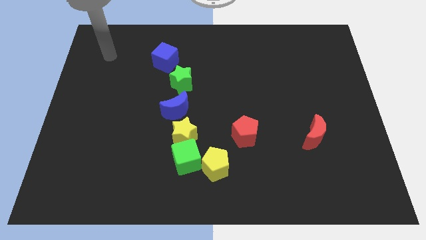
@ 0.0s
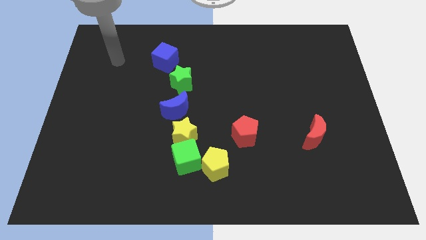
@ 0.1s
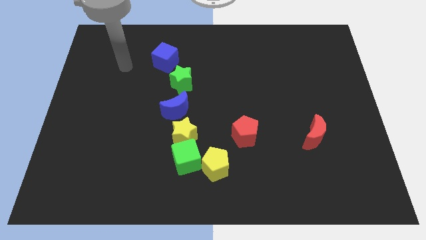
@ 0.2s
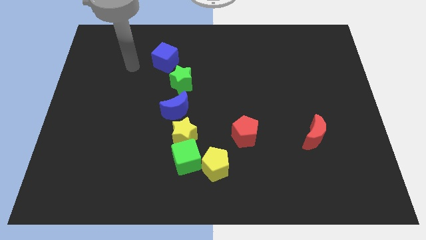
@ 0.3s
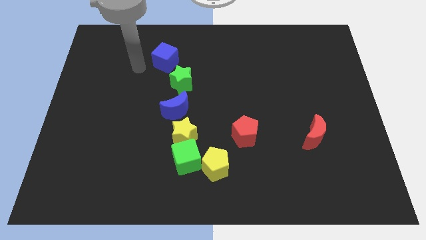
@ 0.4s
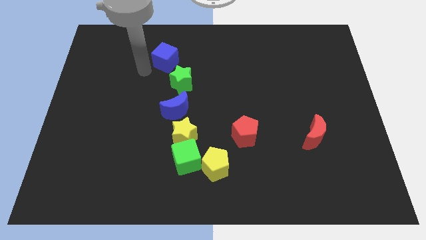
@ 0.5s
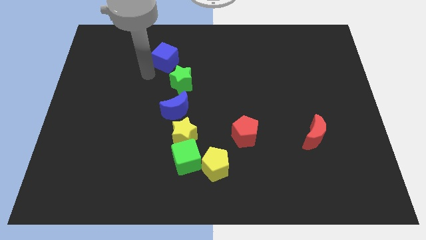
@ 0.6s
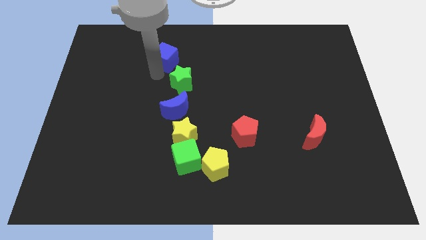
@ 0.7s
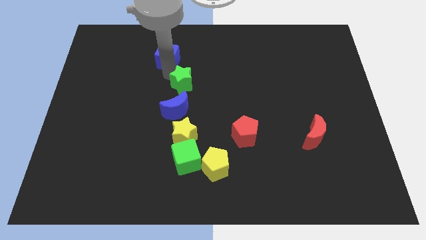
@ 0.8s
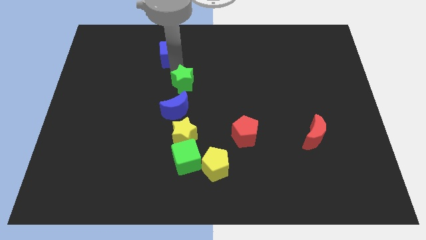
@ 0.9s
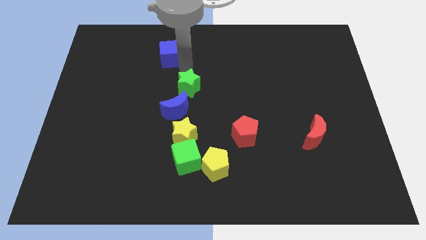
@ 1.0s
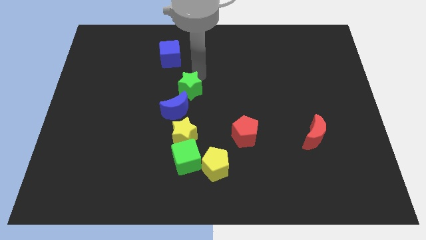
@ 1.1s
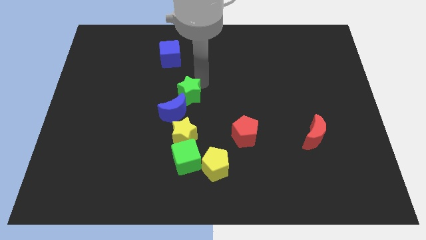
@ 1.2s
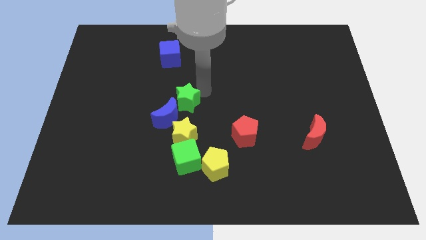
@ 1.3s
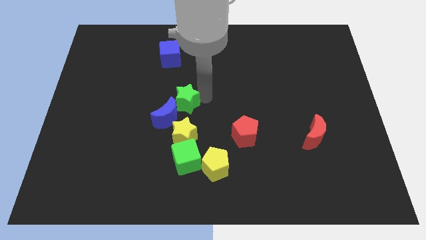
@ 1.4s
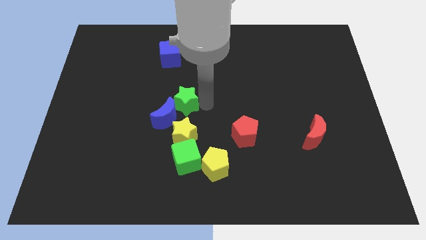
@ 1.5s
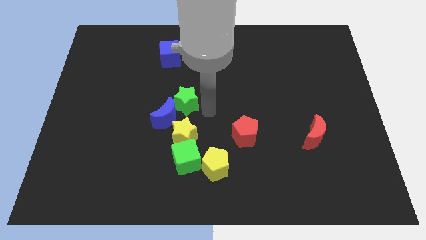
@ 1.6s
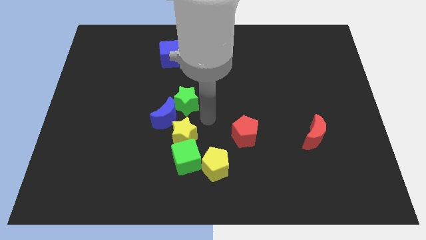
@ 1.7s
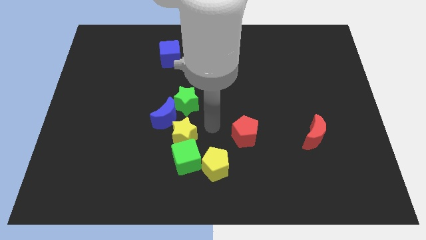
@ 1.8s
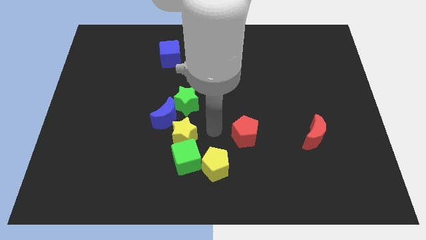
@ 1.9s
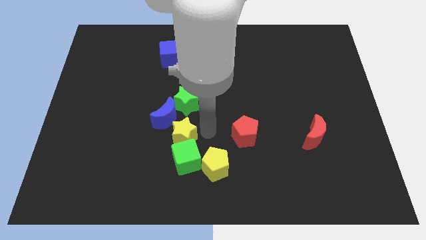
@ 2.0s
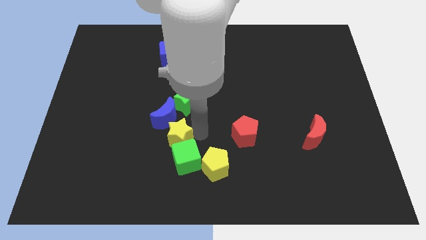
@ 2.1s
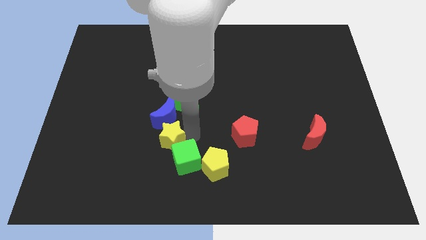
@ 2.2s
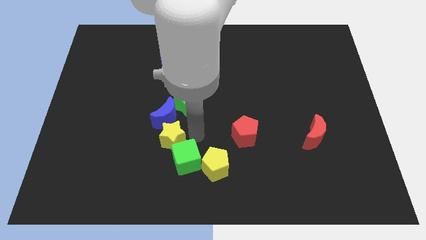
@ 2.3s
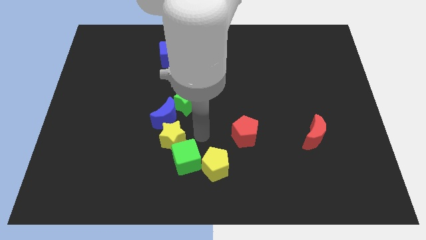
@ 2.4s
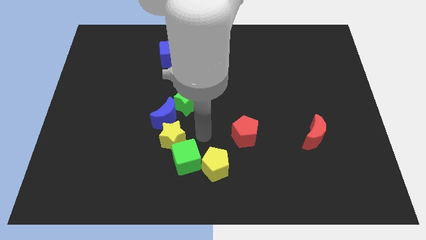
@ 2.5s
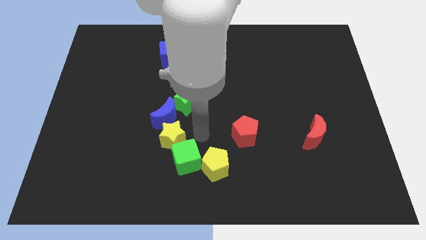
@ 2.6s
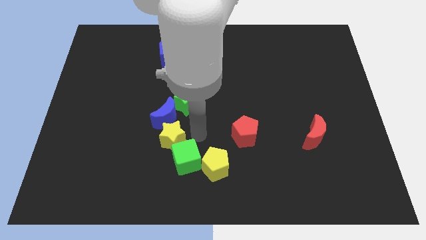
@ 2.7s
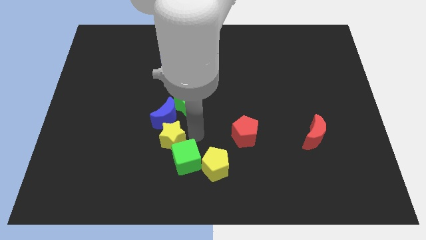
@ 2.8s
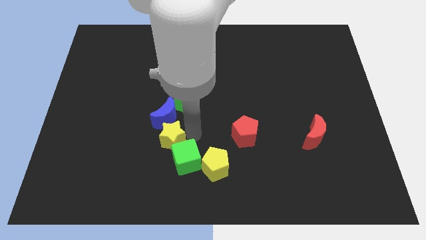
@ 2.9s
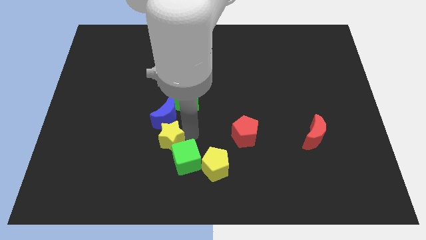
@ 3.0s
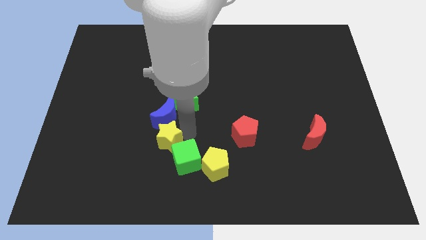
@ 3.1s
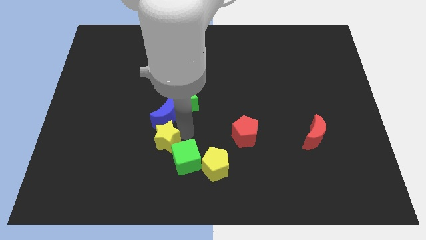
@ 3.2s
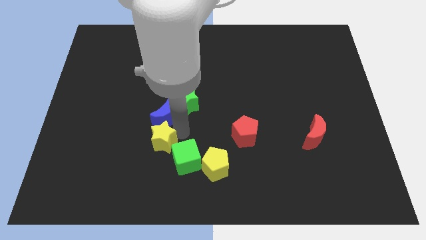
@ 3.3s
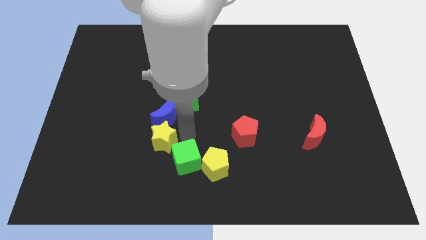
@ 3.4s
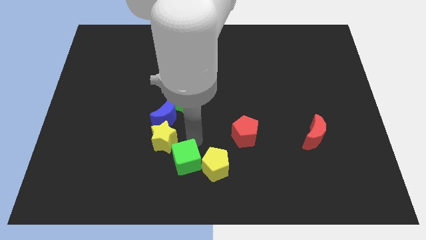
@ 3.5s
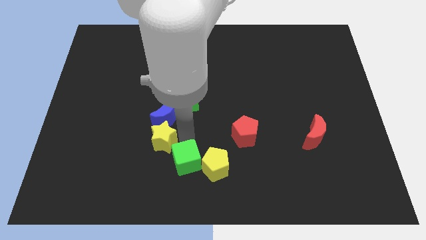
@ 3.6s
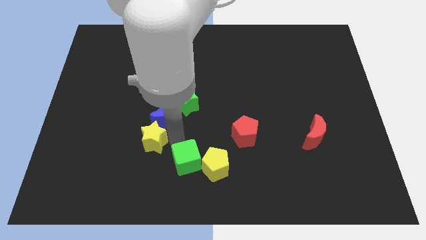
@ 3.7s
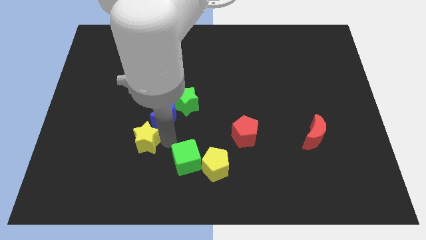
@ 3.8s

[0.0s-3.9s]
slightly slide the yellow star left

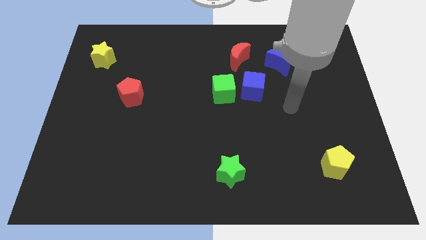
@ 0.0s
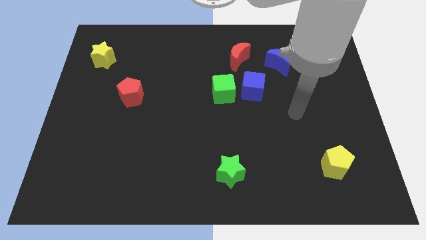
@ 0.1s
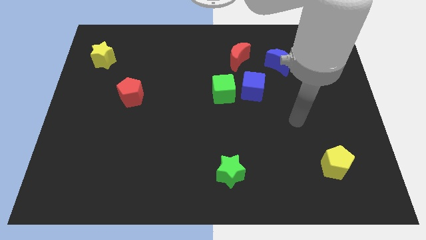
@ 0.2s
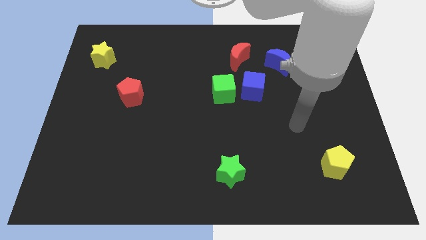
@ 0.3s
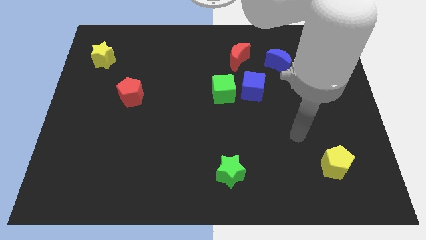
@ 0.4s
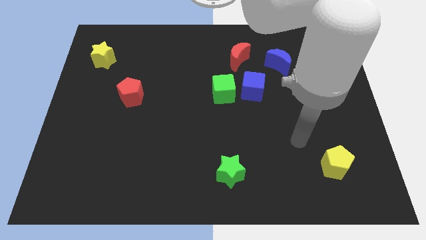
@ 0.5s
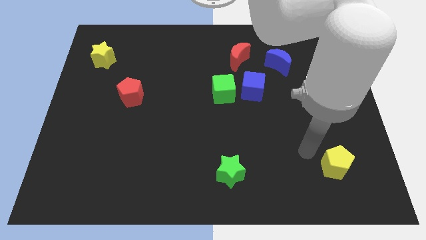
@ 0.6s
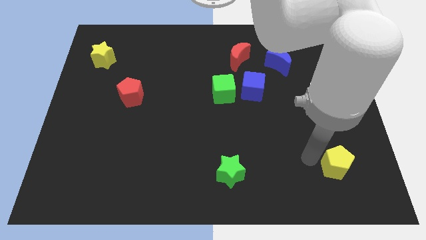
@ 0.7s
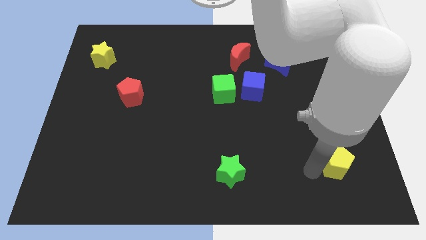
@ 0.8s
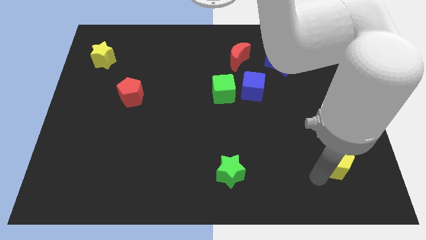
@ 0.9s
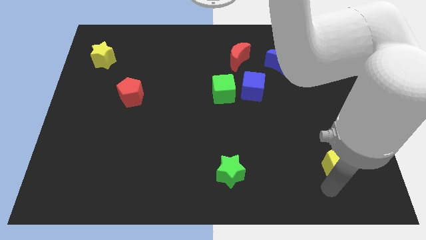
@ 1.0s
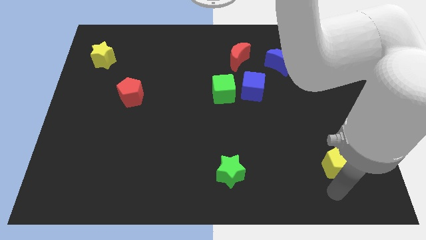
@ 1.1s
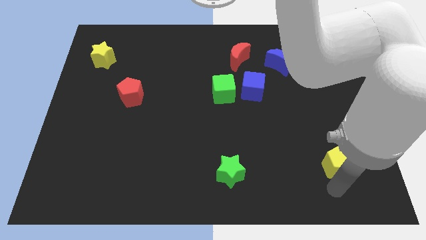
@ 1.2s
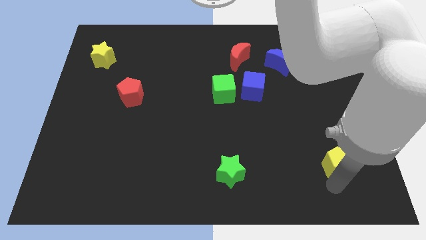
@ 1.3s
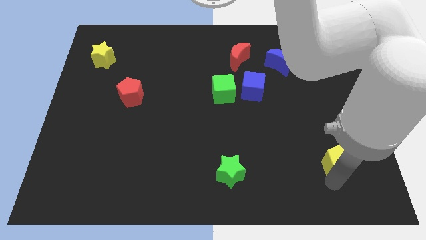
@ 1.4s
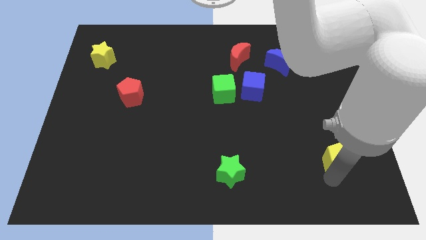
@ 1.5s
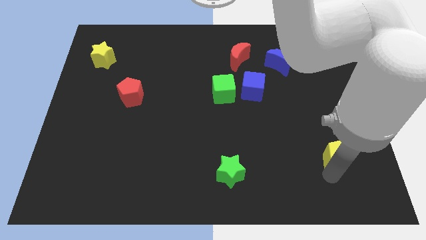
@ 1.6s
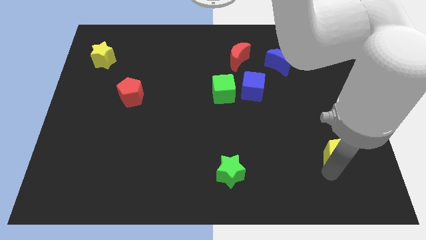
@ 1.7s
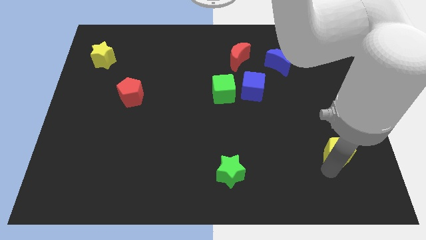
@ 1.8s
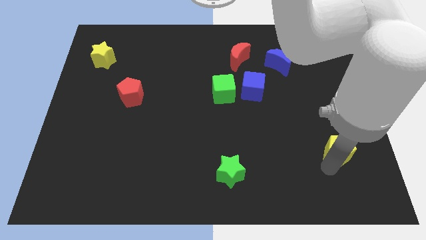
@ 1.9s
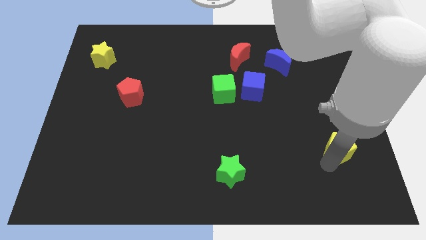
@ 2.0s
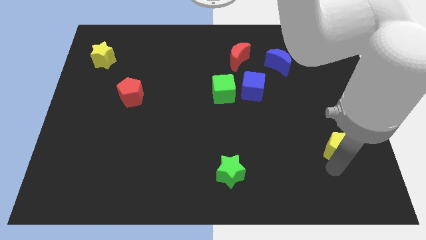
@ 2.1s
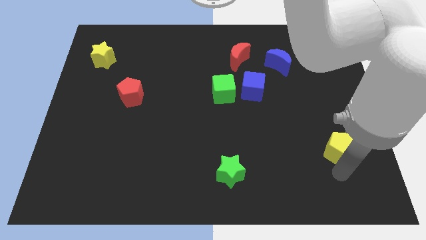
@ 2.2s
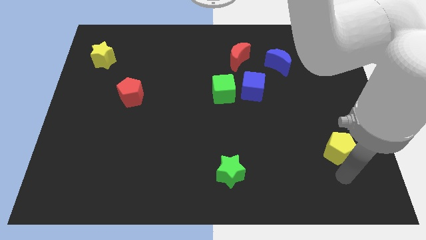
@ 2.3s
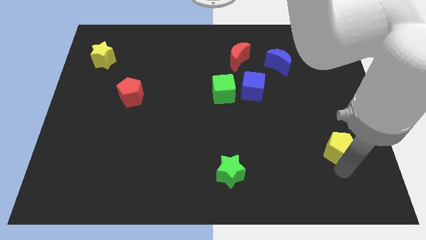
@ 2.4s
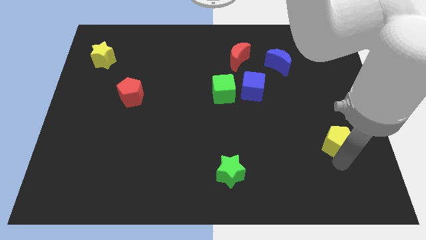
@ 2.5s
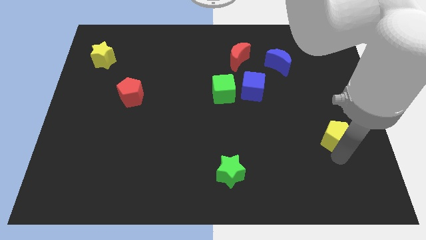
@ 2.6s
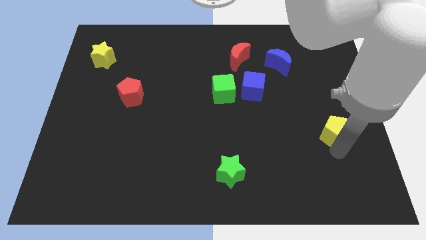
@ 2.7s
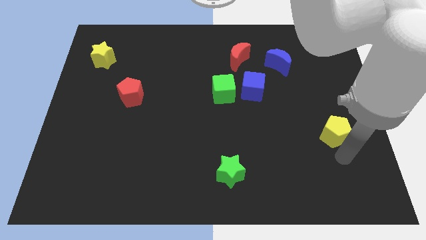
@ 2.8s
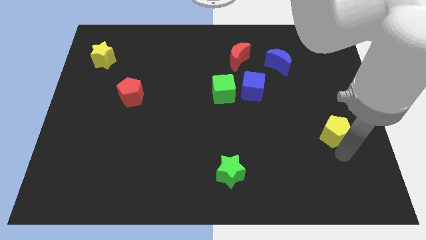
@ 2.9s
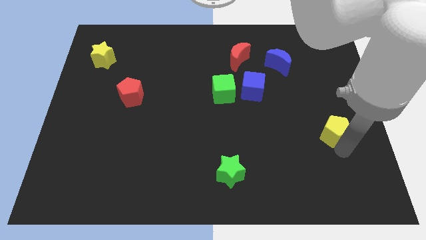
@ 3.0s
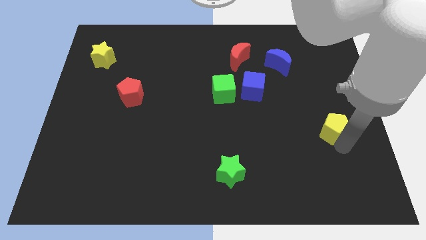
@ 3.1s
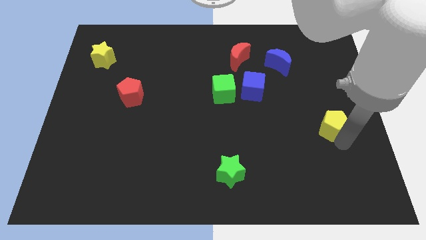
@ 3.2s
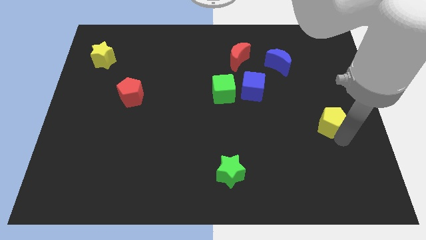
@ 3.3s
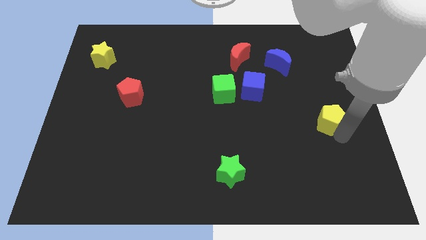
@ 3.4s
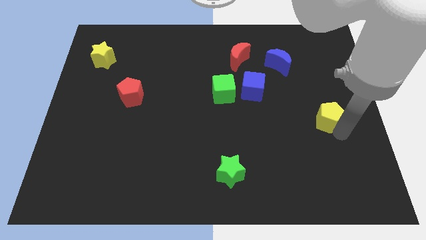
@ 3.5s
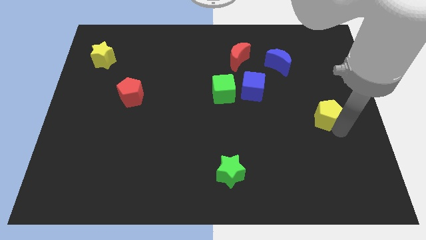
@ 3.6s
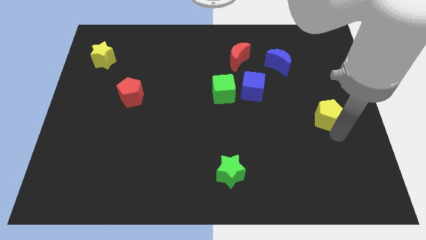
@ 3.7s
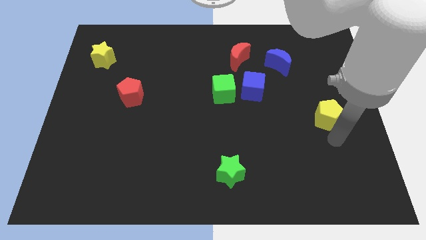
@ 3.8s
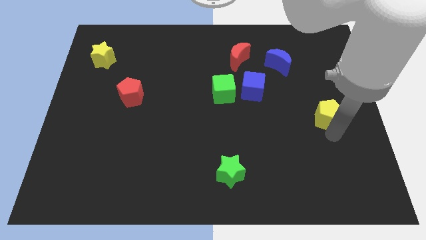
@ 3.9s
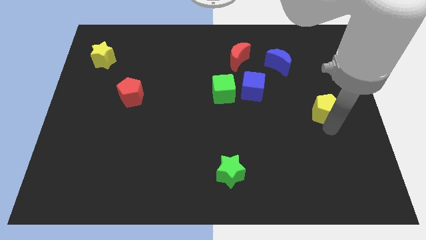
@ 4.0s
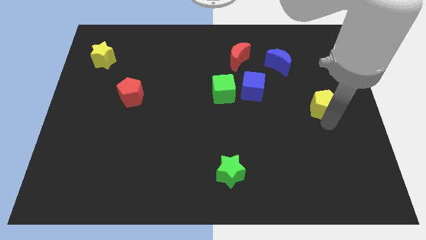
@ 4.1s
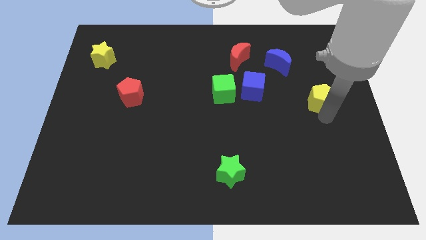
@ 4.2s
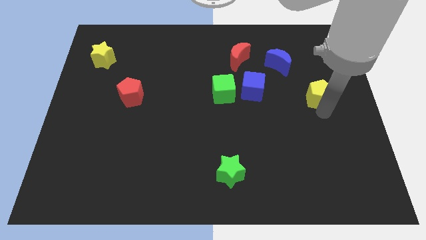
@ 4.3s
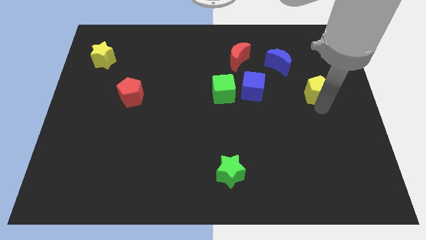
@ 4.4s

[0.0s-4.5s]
push the yellow pentagon upwards
